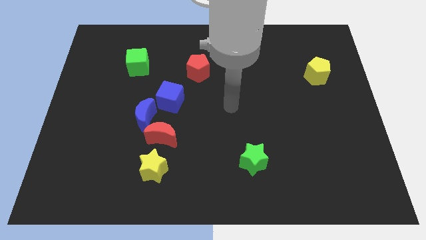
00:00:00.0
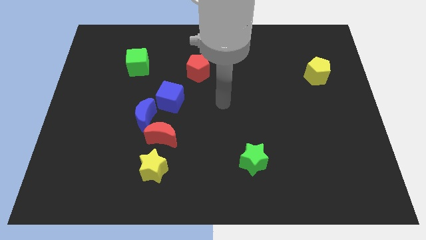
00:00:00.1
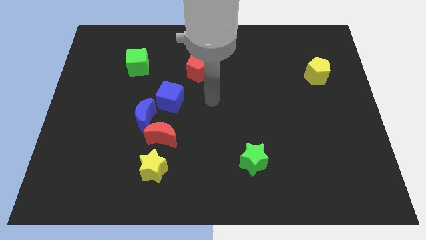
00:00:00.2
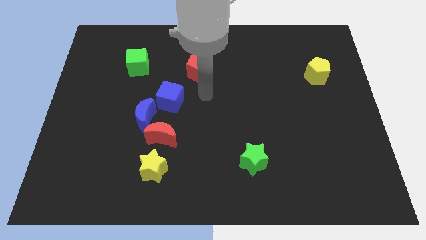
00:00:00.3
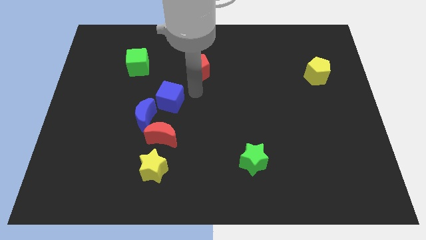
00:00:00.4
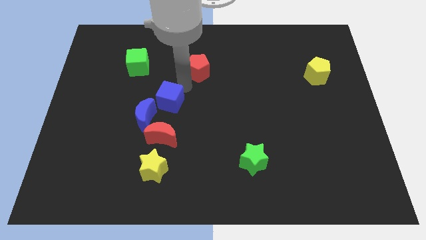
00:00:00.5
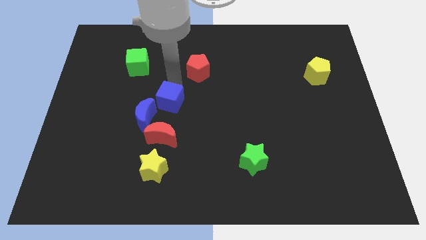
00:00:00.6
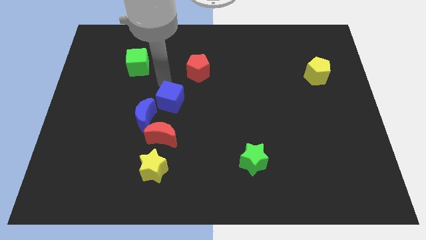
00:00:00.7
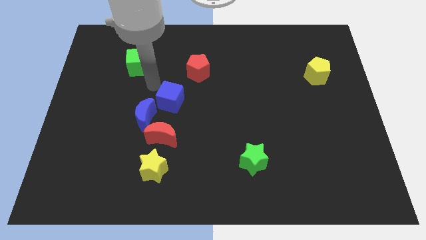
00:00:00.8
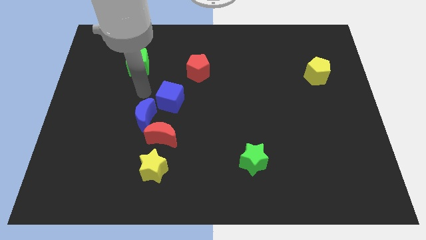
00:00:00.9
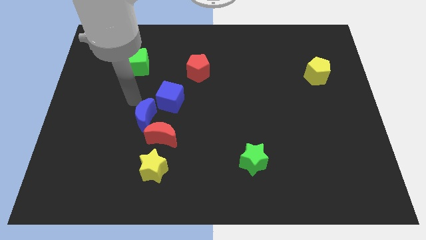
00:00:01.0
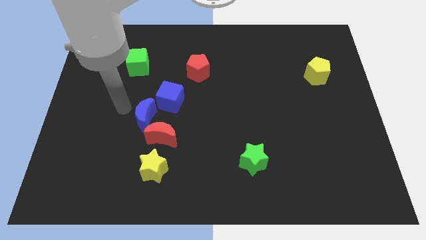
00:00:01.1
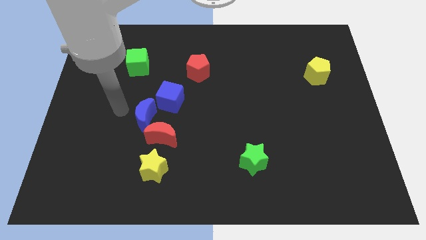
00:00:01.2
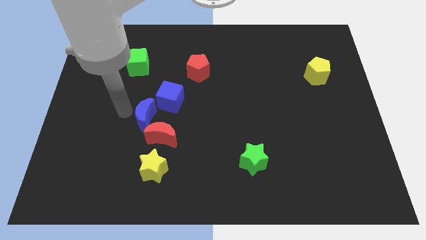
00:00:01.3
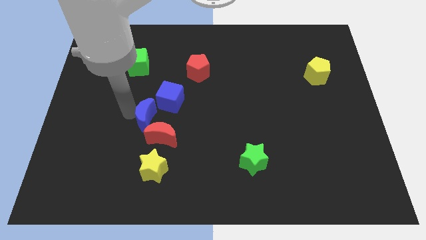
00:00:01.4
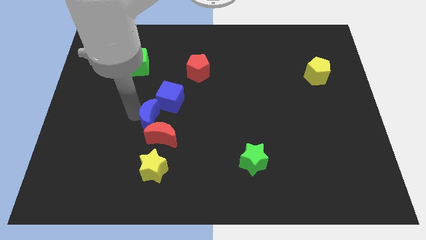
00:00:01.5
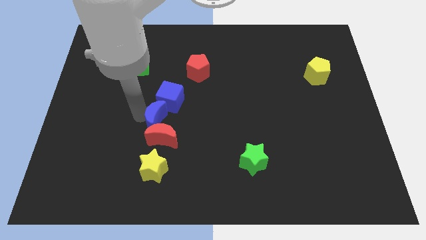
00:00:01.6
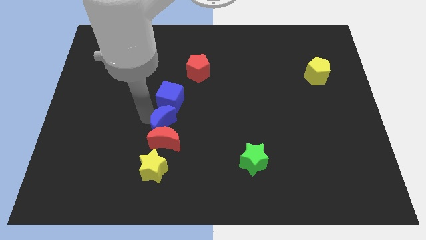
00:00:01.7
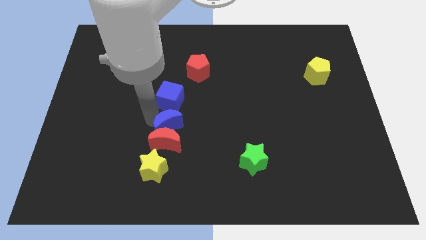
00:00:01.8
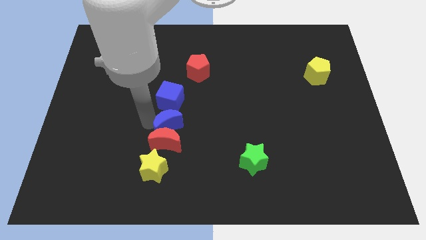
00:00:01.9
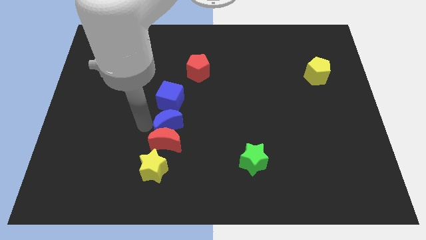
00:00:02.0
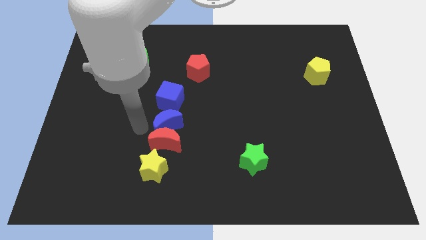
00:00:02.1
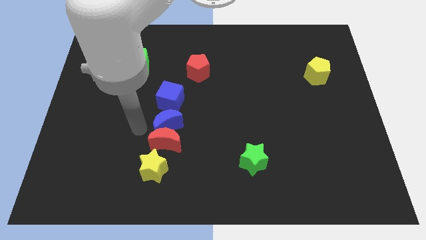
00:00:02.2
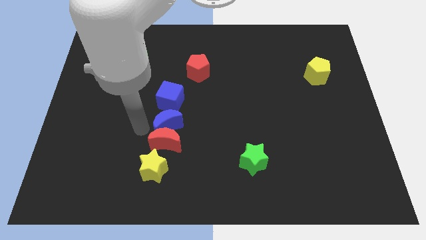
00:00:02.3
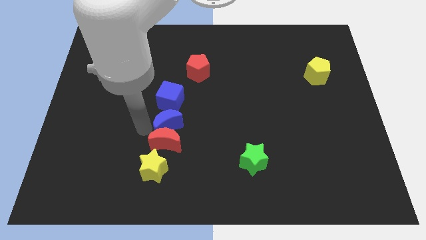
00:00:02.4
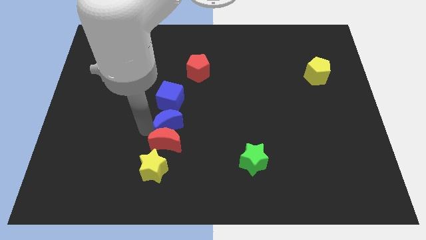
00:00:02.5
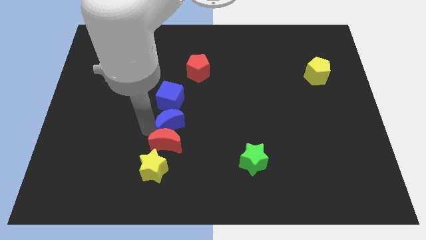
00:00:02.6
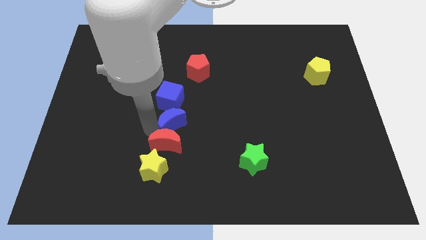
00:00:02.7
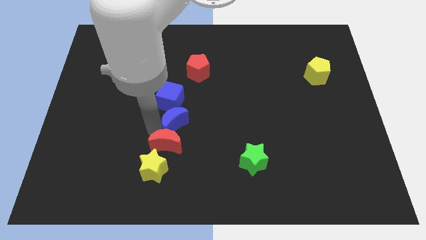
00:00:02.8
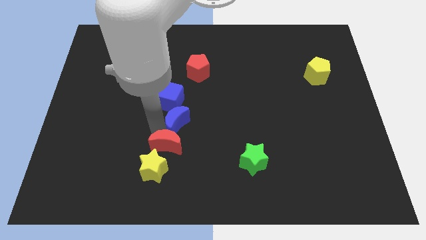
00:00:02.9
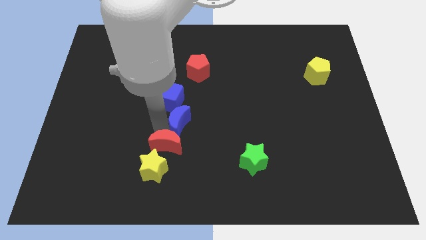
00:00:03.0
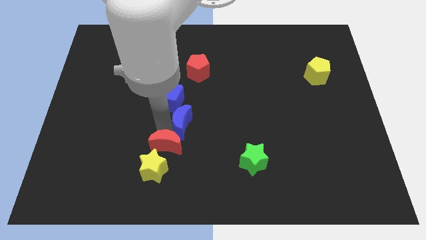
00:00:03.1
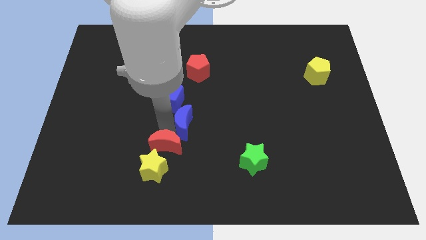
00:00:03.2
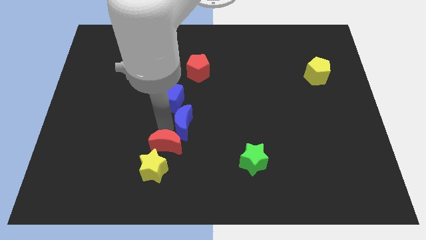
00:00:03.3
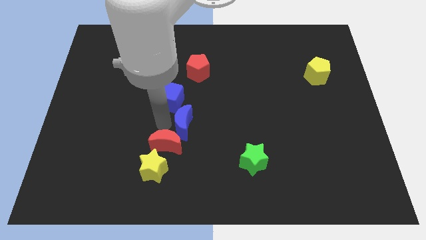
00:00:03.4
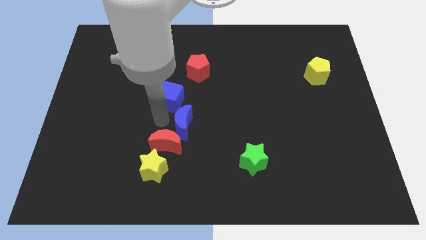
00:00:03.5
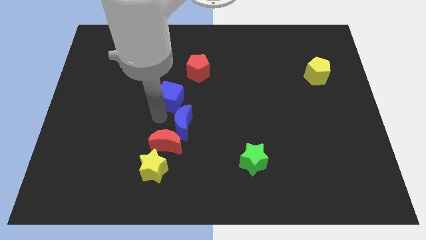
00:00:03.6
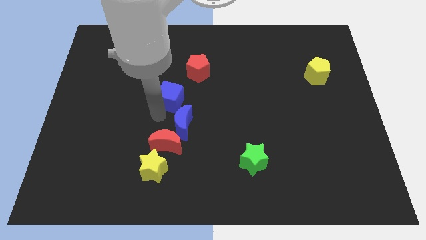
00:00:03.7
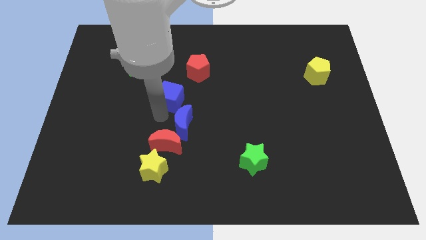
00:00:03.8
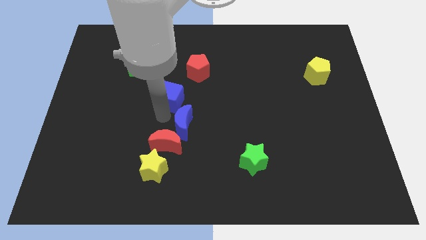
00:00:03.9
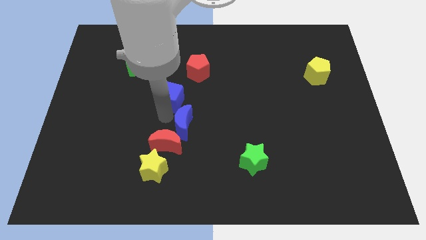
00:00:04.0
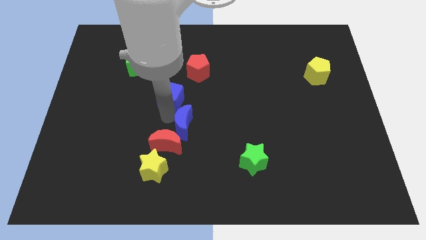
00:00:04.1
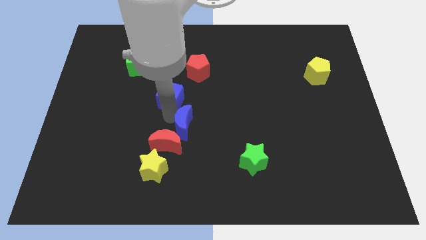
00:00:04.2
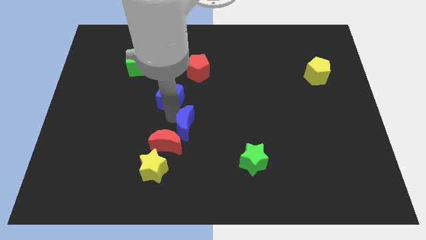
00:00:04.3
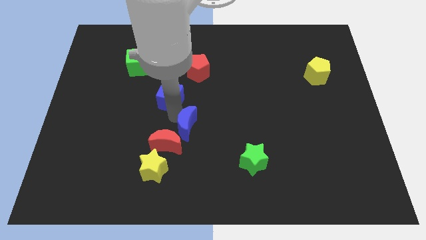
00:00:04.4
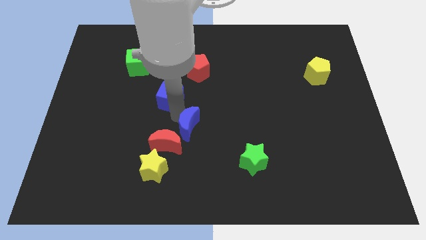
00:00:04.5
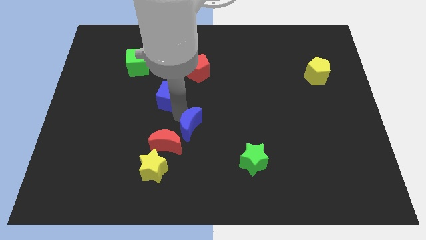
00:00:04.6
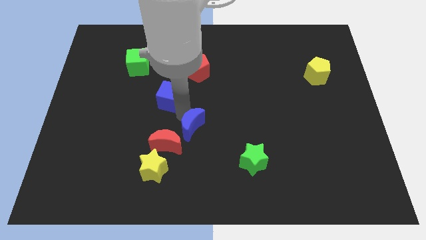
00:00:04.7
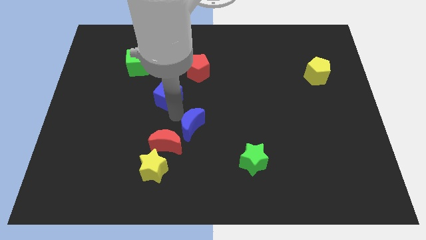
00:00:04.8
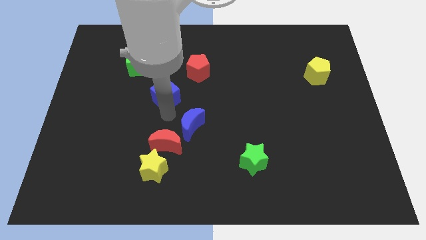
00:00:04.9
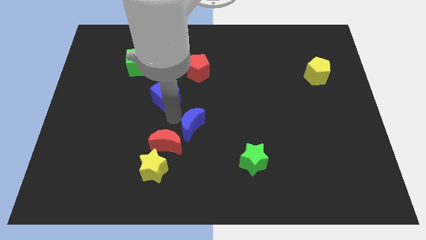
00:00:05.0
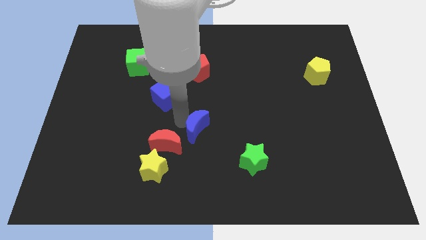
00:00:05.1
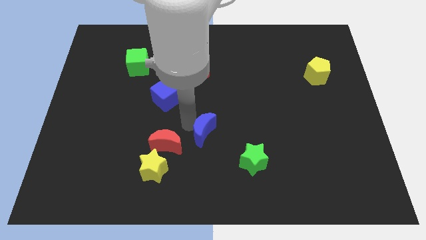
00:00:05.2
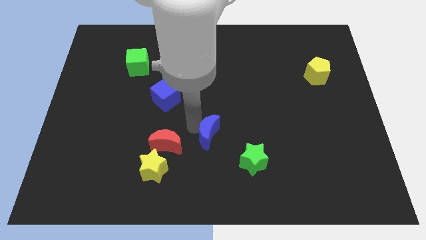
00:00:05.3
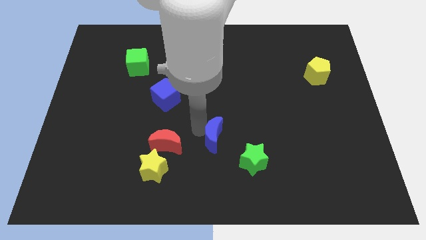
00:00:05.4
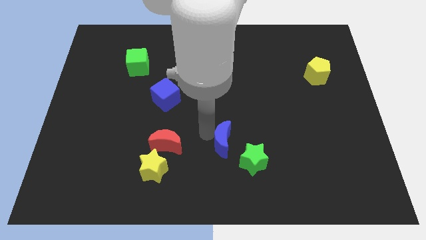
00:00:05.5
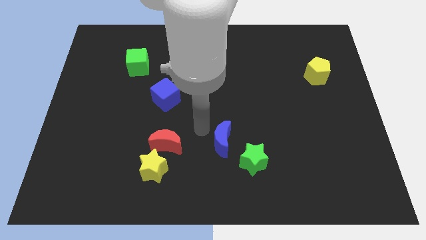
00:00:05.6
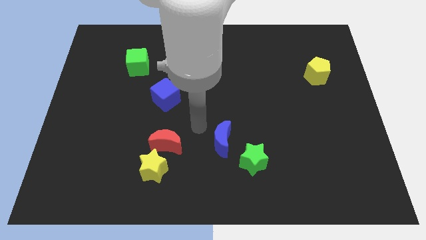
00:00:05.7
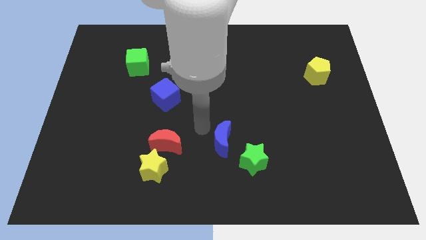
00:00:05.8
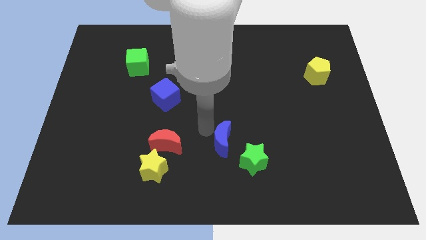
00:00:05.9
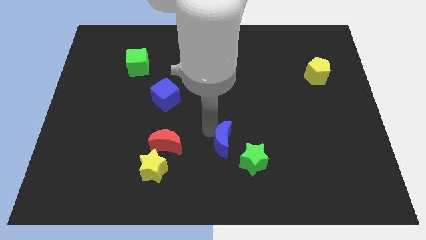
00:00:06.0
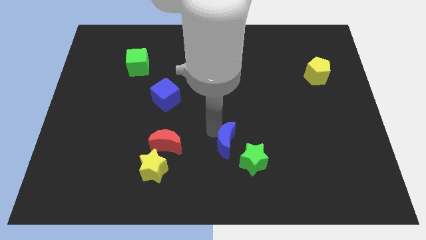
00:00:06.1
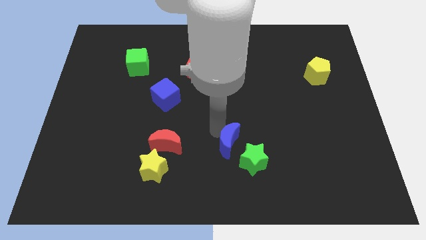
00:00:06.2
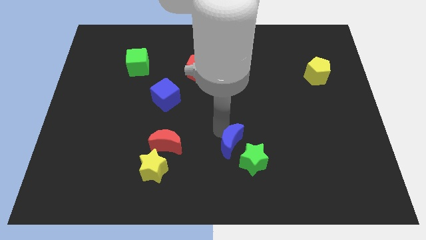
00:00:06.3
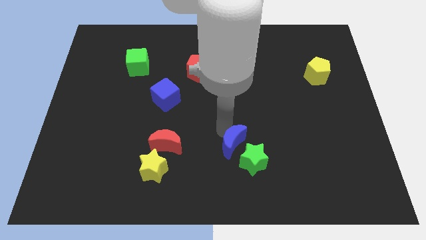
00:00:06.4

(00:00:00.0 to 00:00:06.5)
slide the blue moon next to the green star
